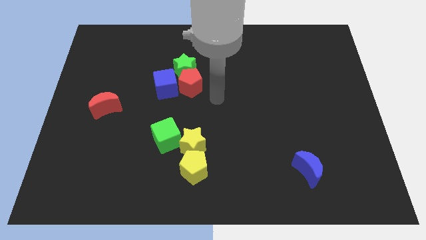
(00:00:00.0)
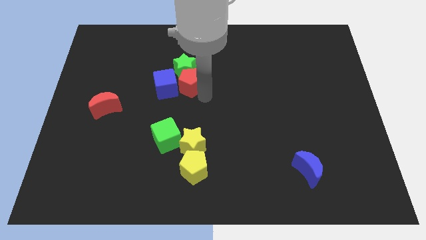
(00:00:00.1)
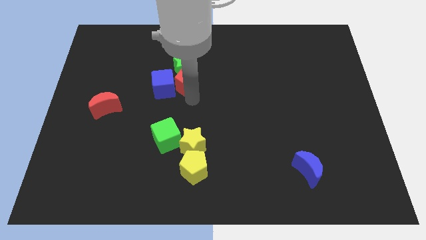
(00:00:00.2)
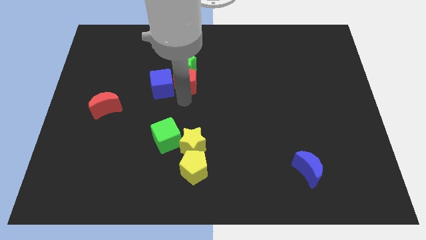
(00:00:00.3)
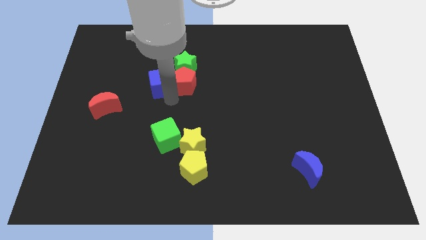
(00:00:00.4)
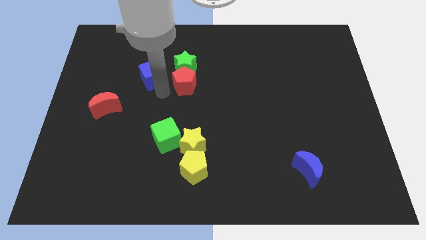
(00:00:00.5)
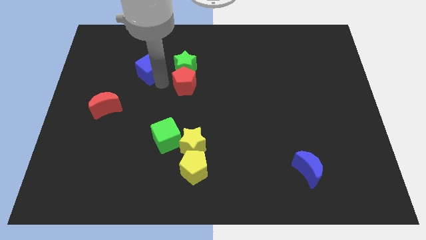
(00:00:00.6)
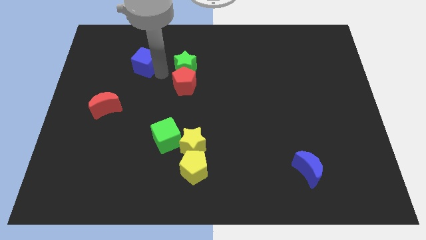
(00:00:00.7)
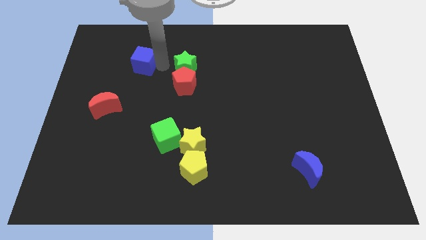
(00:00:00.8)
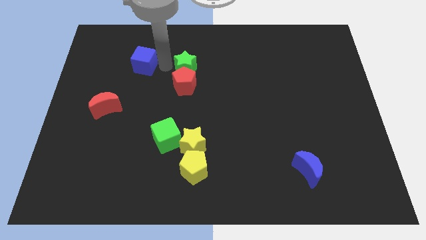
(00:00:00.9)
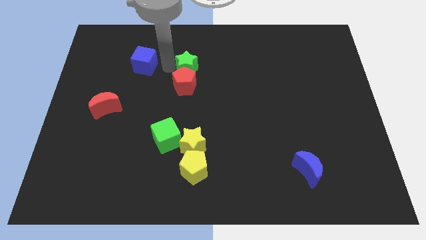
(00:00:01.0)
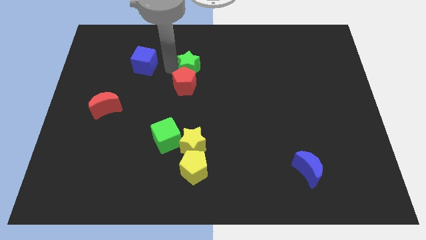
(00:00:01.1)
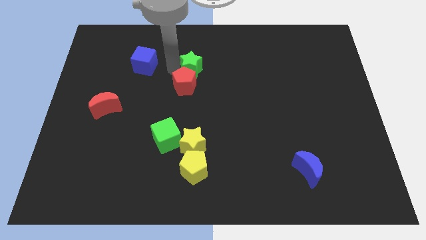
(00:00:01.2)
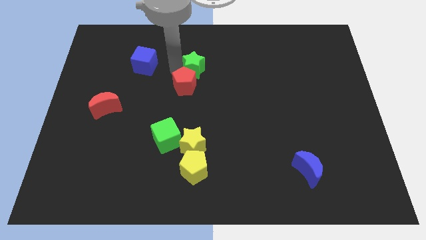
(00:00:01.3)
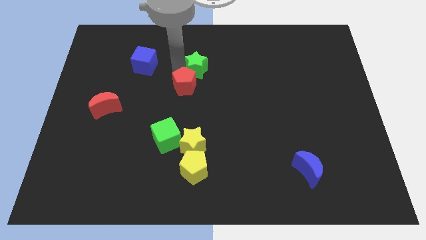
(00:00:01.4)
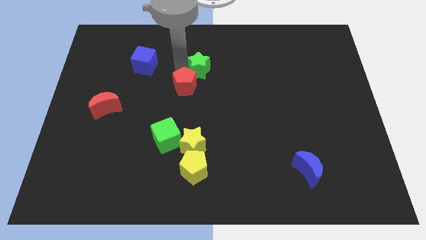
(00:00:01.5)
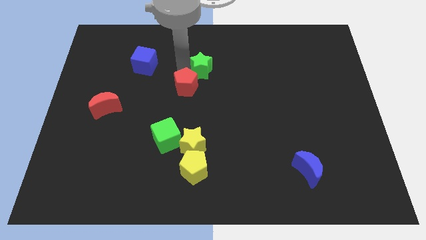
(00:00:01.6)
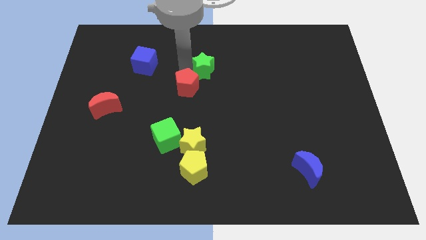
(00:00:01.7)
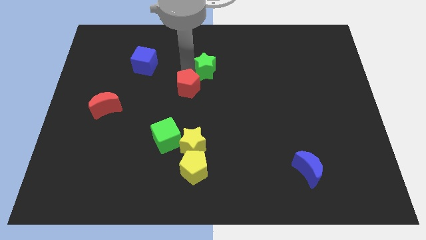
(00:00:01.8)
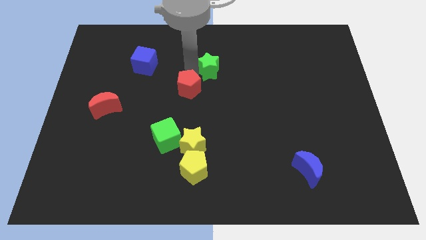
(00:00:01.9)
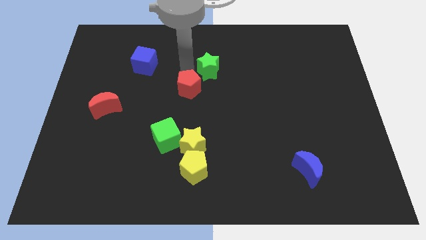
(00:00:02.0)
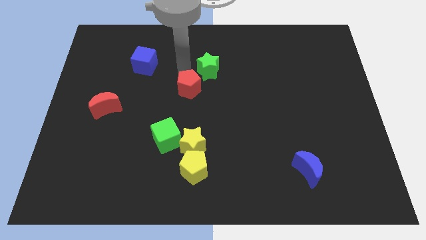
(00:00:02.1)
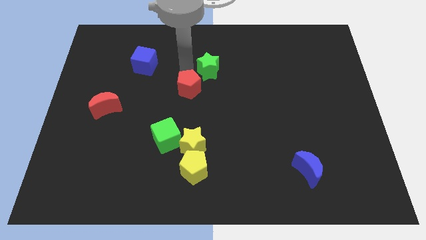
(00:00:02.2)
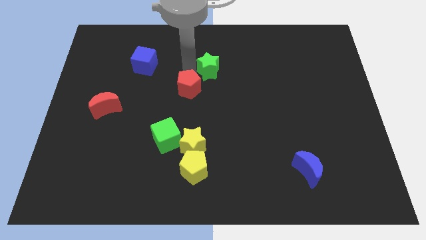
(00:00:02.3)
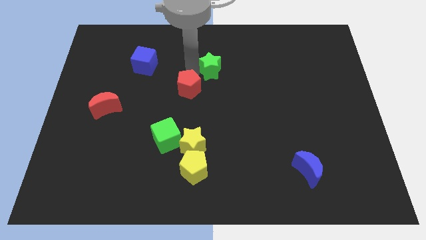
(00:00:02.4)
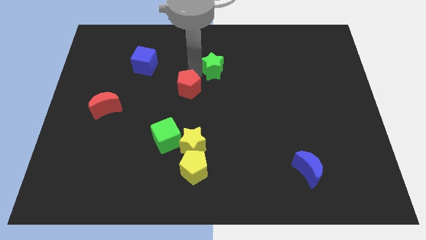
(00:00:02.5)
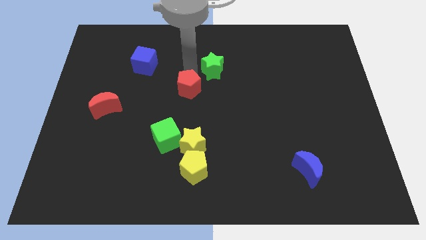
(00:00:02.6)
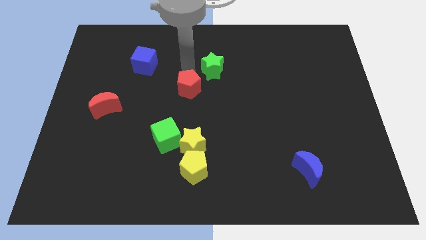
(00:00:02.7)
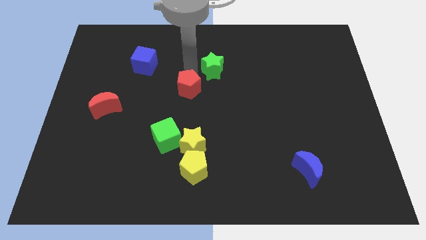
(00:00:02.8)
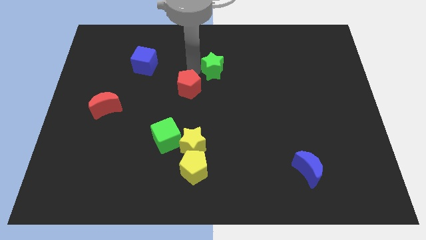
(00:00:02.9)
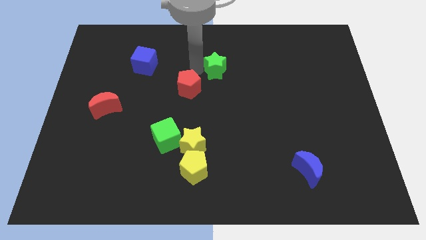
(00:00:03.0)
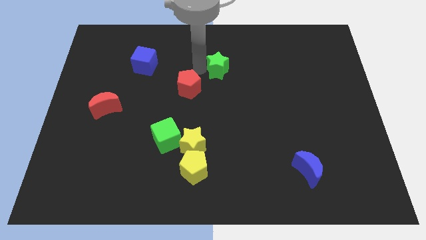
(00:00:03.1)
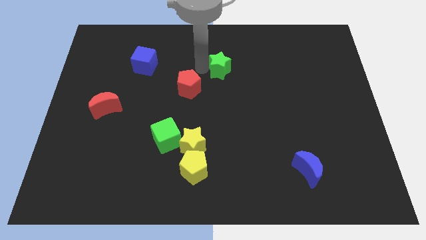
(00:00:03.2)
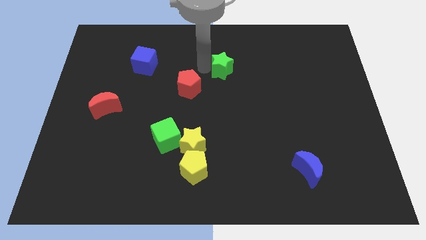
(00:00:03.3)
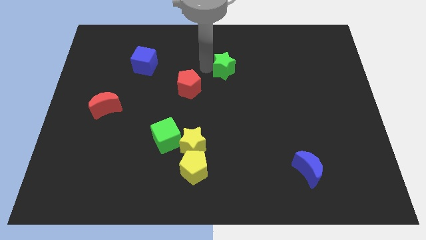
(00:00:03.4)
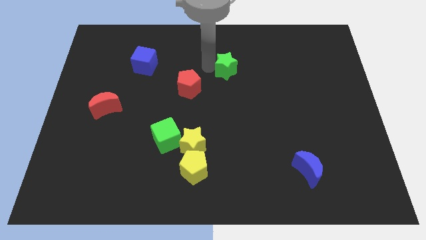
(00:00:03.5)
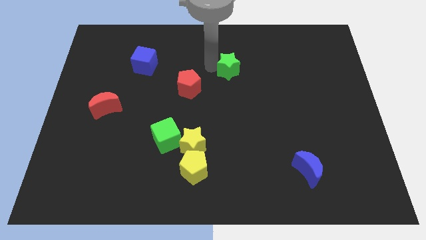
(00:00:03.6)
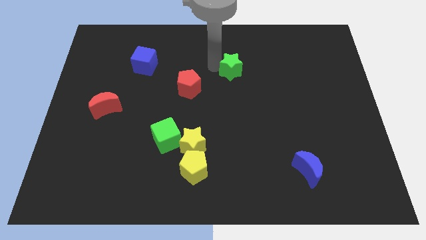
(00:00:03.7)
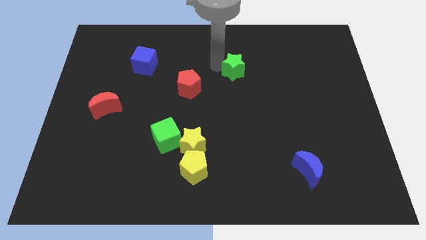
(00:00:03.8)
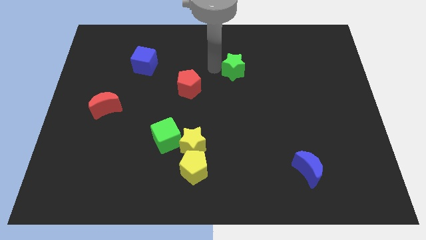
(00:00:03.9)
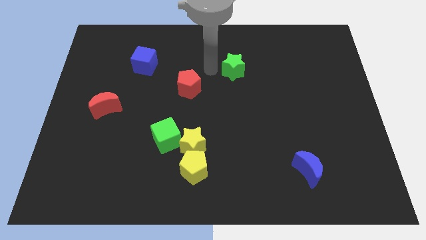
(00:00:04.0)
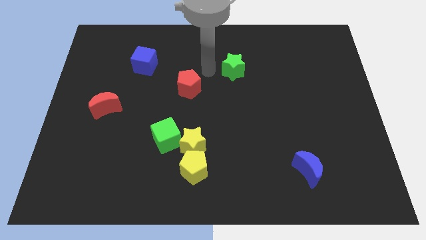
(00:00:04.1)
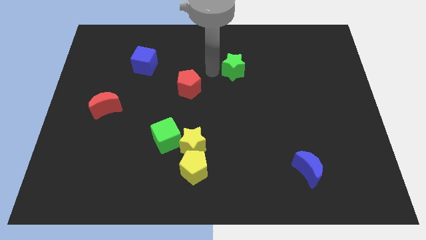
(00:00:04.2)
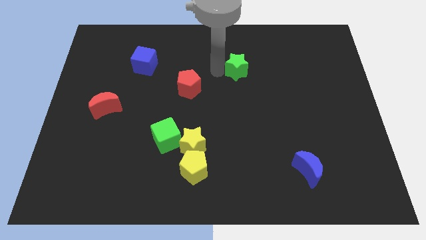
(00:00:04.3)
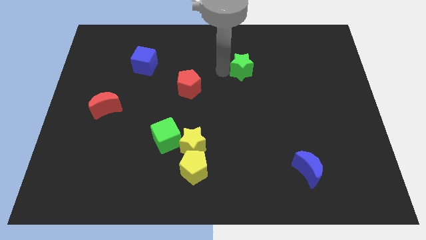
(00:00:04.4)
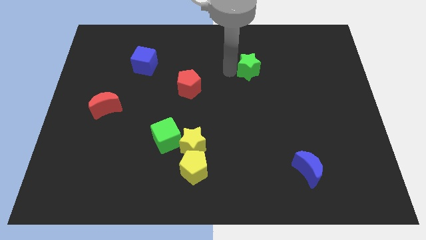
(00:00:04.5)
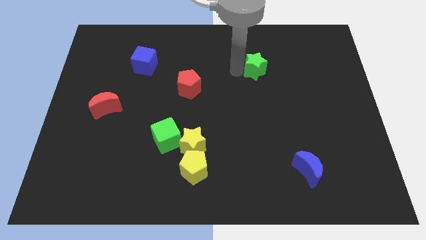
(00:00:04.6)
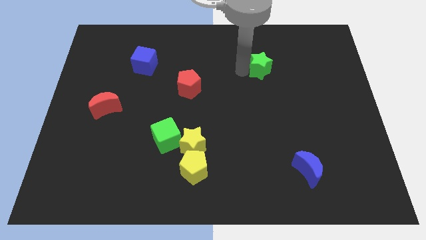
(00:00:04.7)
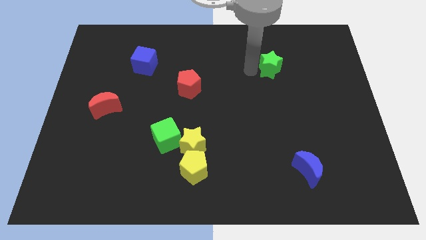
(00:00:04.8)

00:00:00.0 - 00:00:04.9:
push the green star right

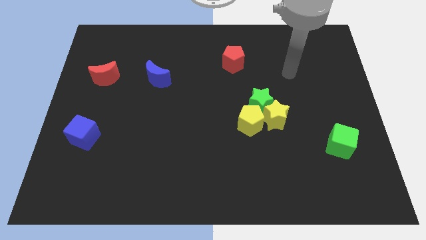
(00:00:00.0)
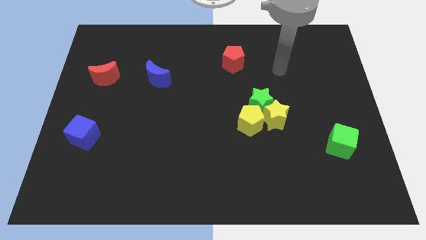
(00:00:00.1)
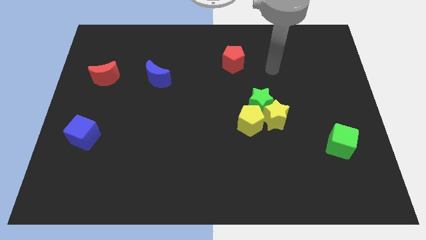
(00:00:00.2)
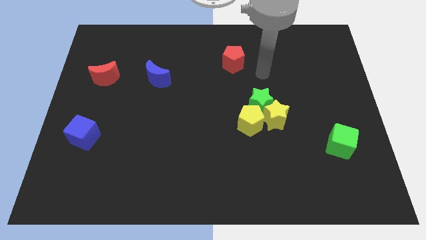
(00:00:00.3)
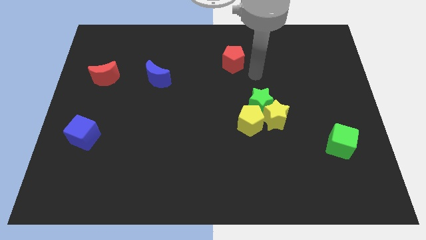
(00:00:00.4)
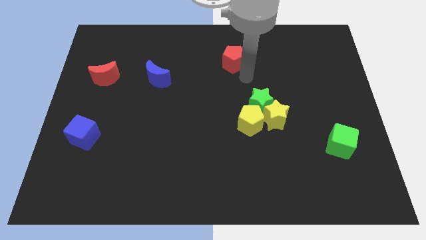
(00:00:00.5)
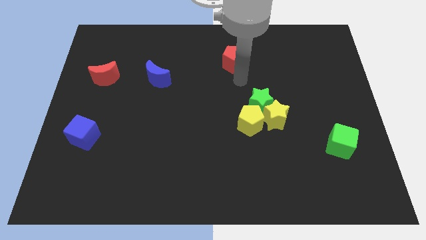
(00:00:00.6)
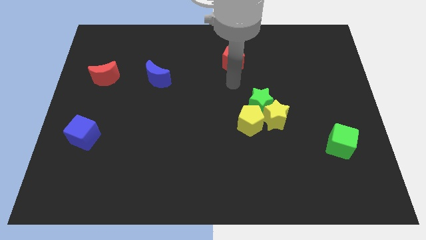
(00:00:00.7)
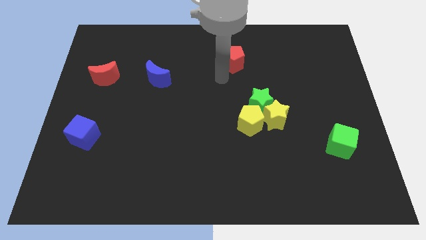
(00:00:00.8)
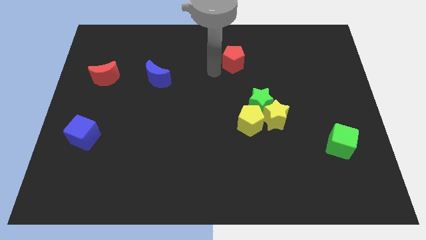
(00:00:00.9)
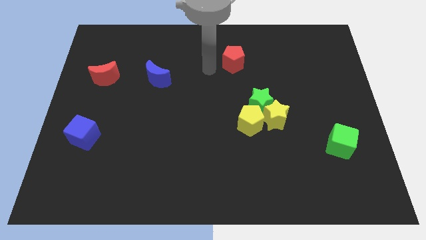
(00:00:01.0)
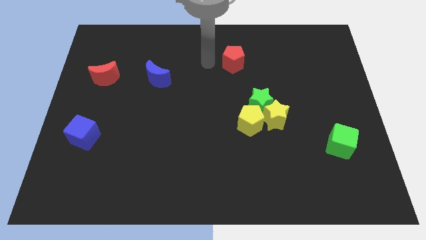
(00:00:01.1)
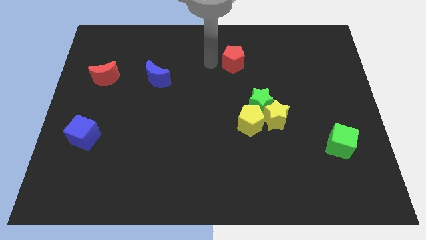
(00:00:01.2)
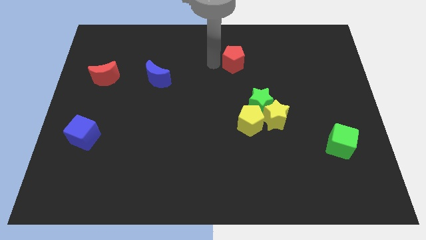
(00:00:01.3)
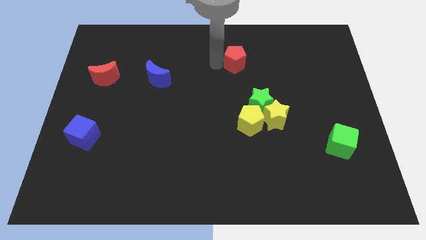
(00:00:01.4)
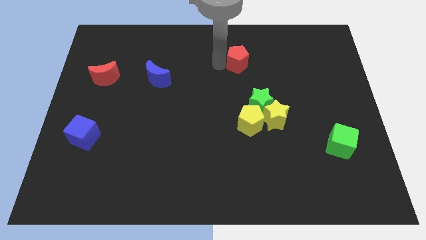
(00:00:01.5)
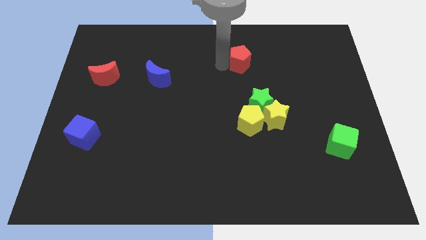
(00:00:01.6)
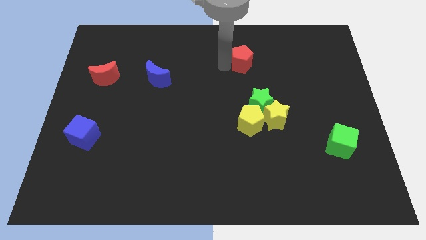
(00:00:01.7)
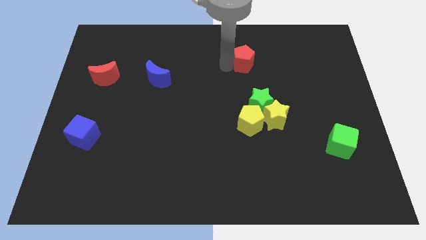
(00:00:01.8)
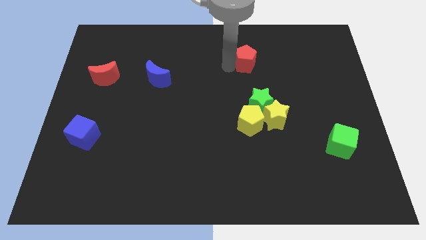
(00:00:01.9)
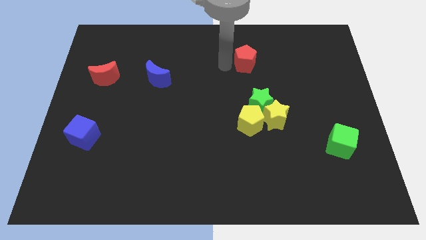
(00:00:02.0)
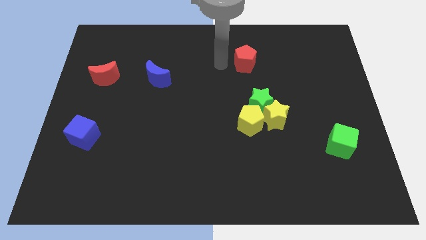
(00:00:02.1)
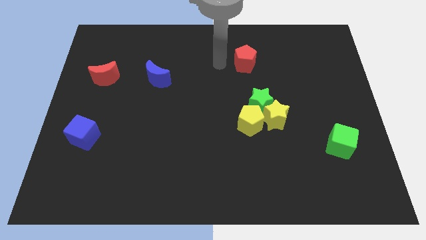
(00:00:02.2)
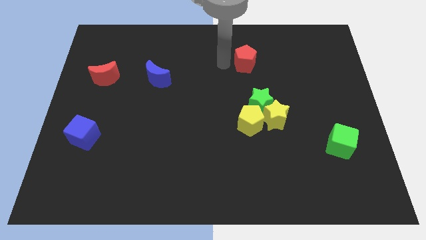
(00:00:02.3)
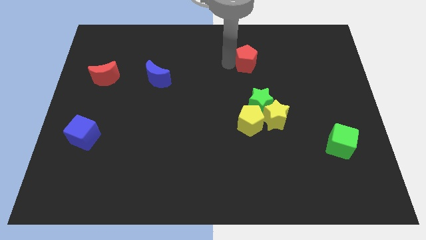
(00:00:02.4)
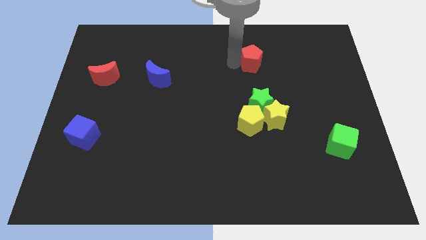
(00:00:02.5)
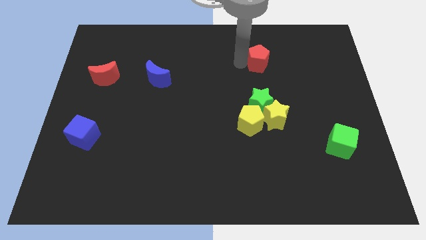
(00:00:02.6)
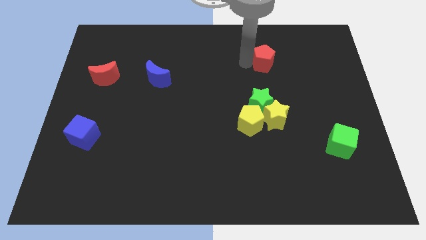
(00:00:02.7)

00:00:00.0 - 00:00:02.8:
slide the red pentagon right slightly

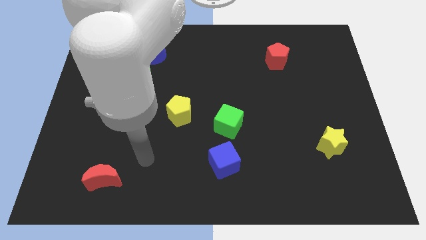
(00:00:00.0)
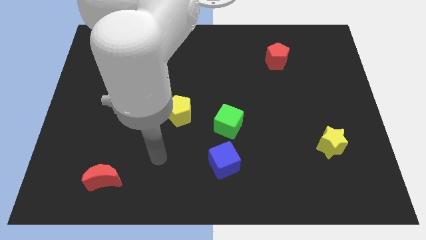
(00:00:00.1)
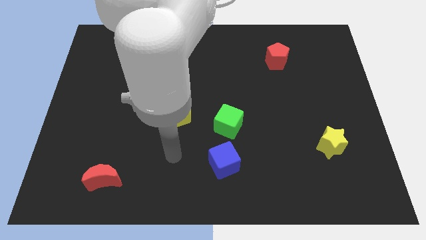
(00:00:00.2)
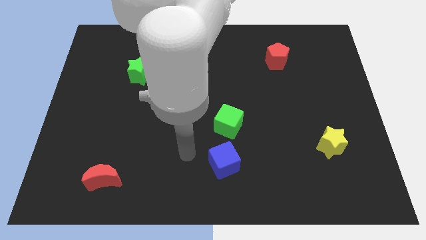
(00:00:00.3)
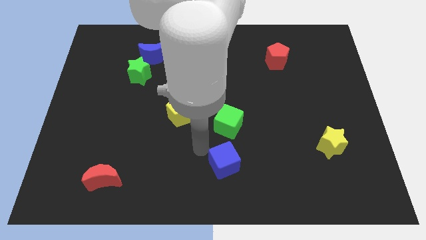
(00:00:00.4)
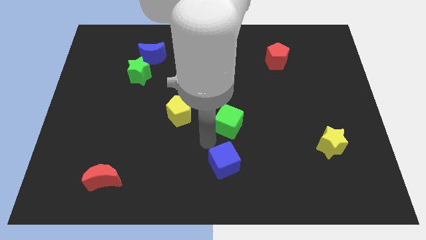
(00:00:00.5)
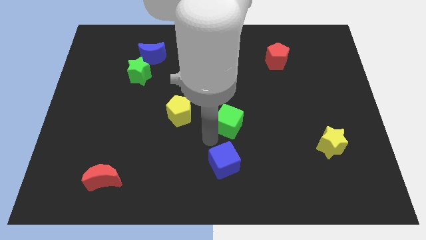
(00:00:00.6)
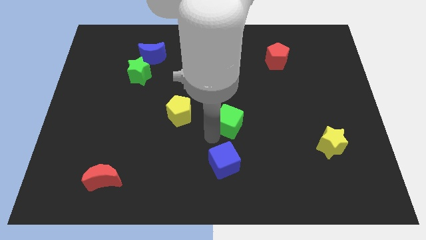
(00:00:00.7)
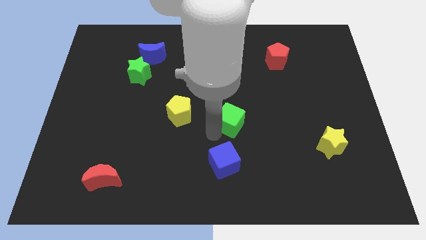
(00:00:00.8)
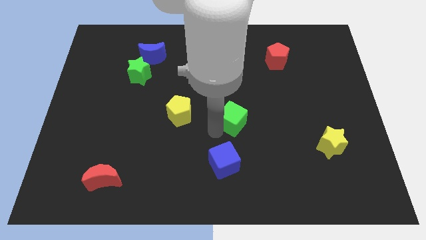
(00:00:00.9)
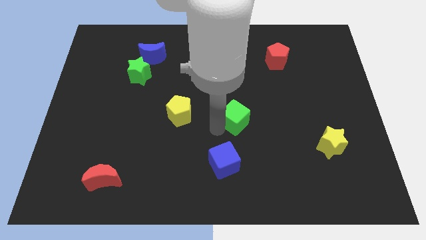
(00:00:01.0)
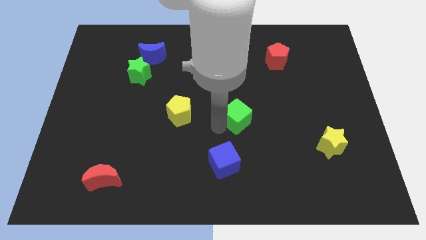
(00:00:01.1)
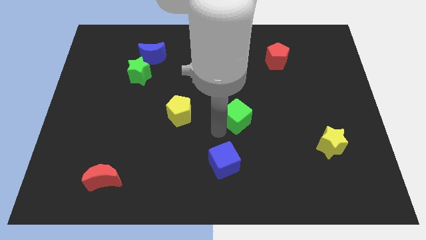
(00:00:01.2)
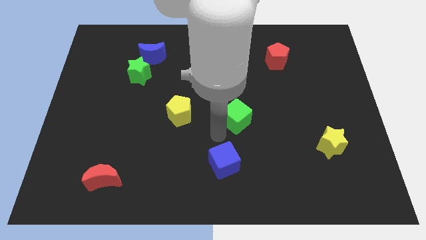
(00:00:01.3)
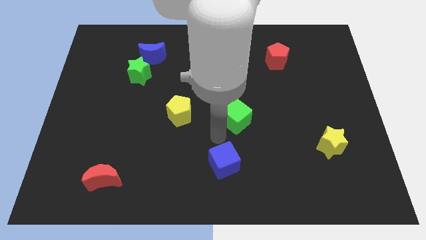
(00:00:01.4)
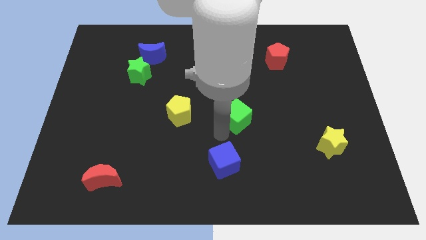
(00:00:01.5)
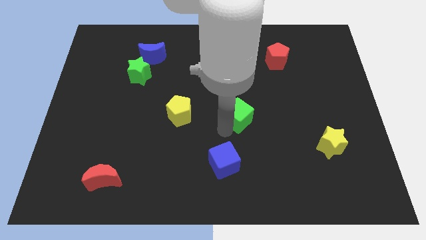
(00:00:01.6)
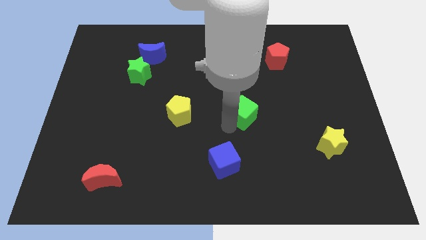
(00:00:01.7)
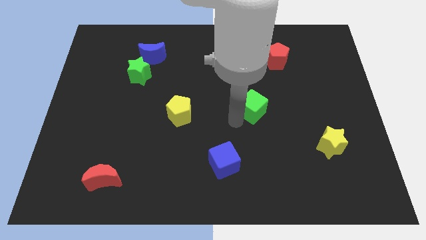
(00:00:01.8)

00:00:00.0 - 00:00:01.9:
push the green cube diagonally up and to the right slightly
